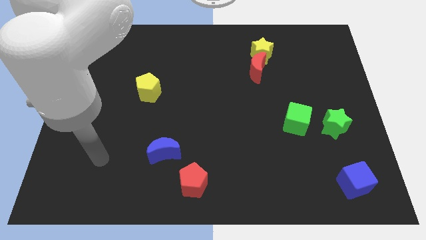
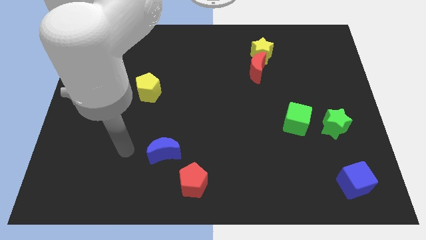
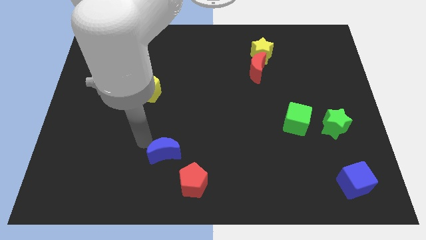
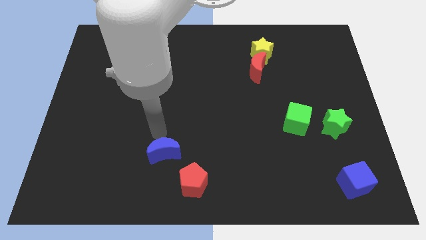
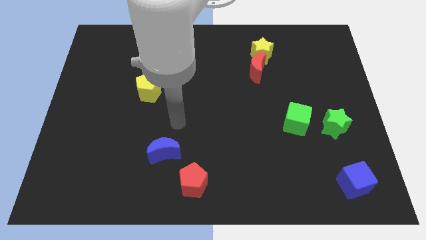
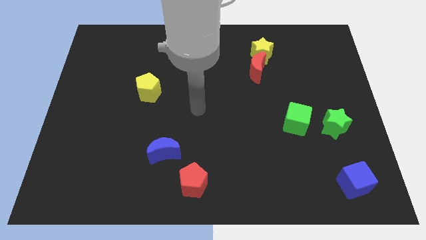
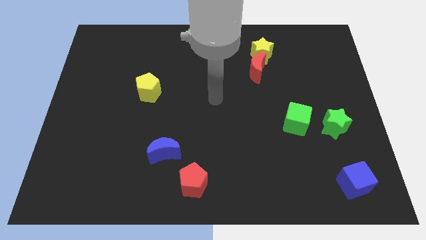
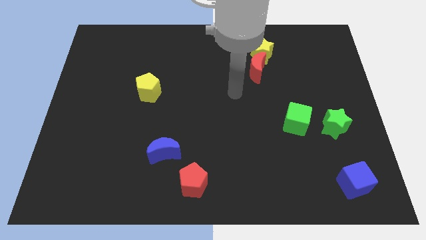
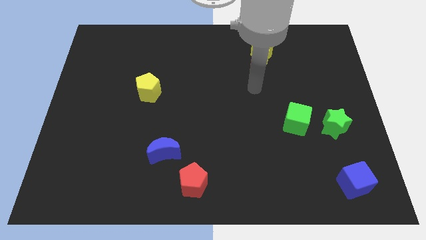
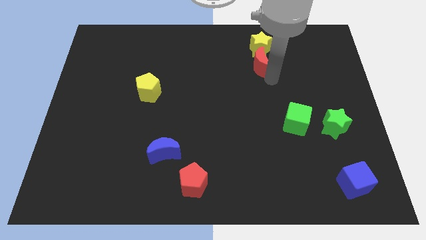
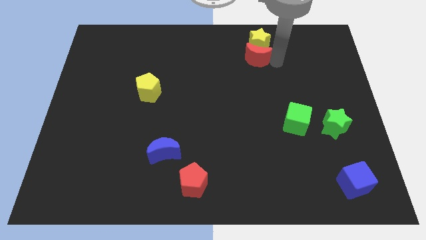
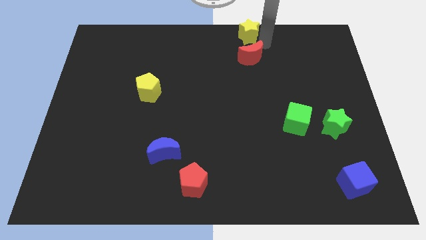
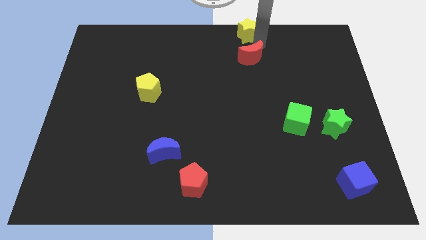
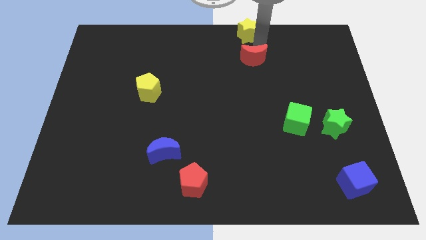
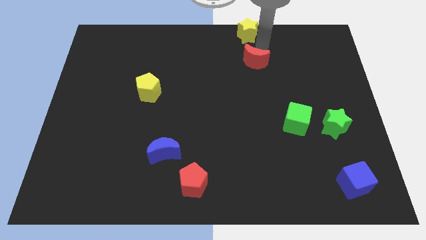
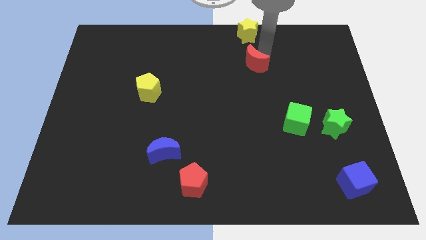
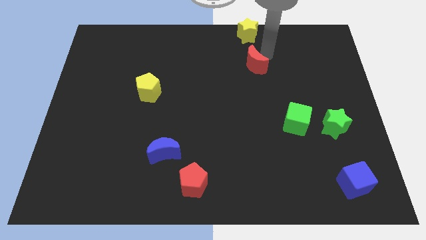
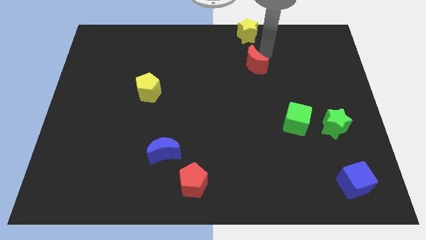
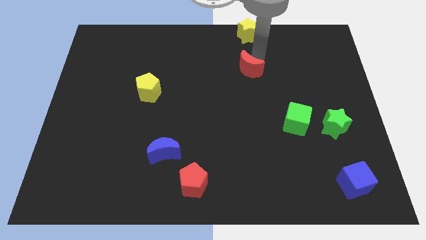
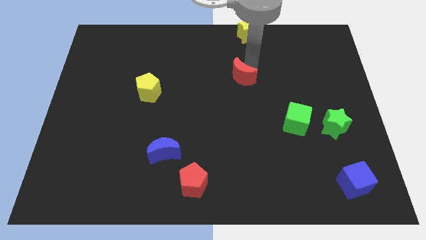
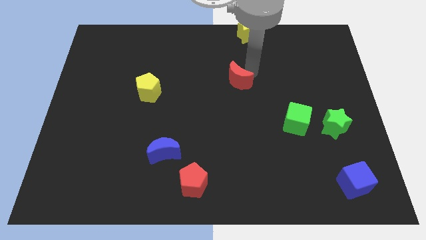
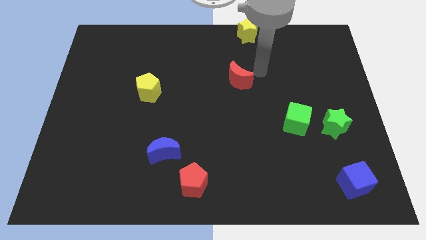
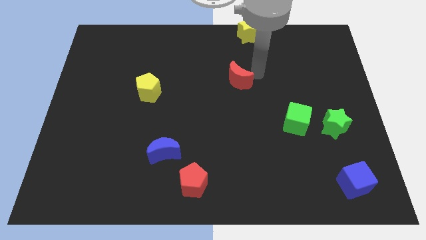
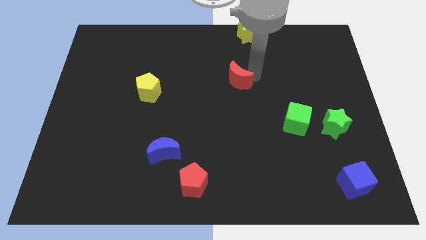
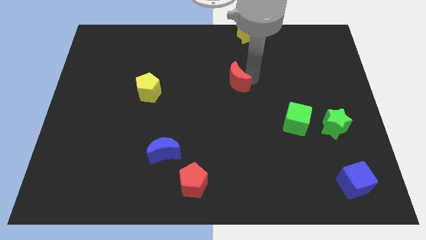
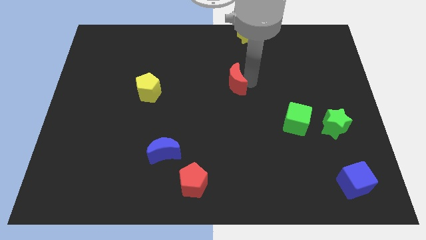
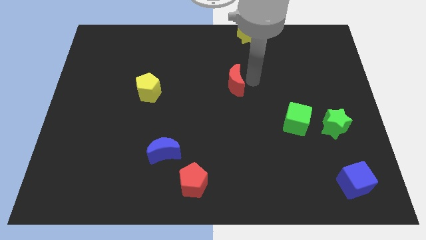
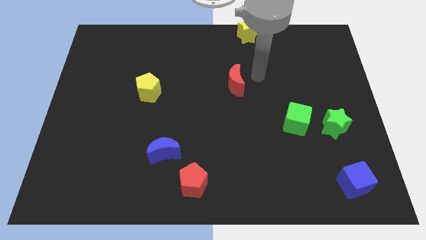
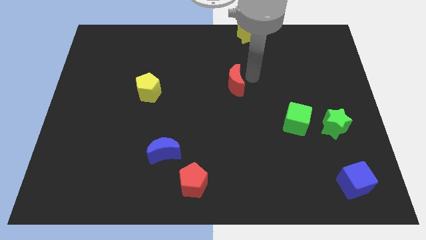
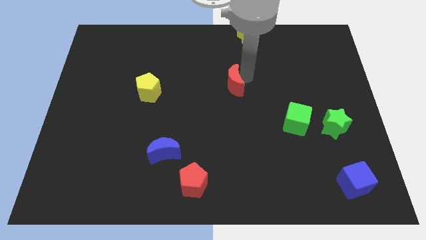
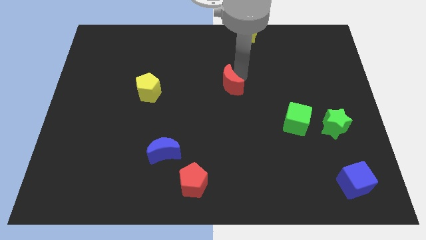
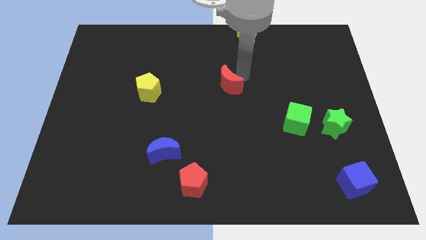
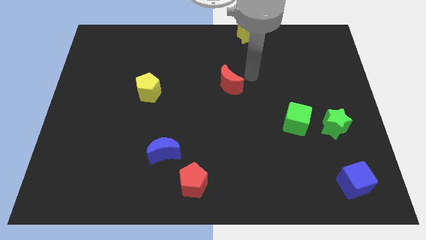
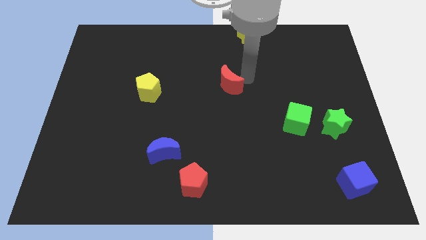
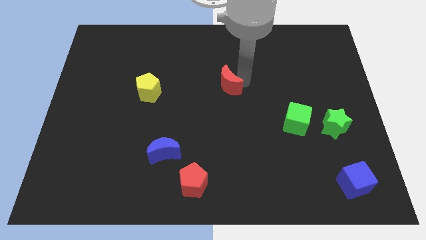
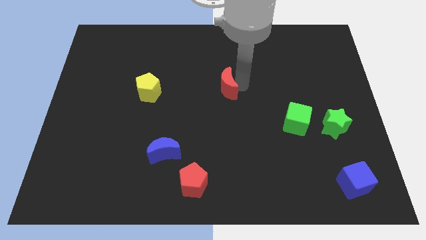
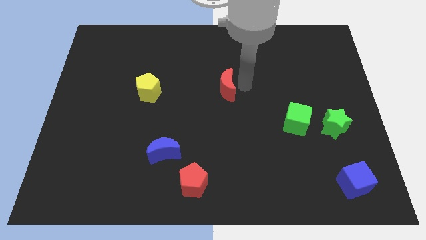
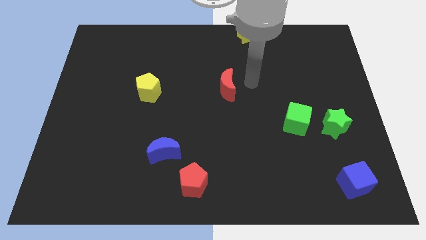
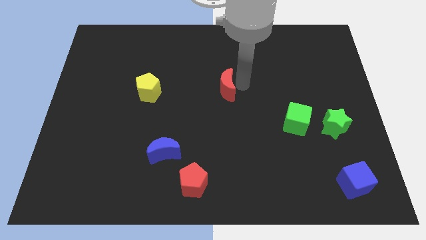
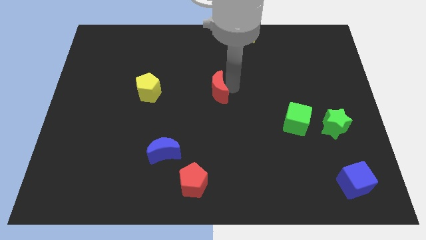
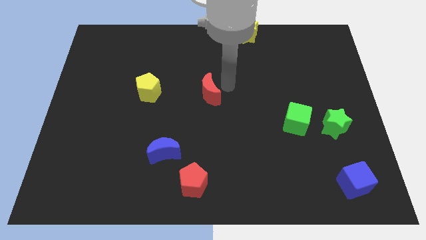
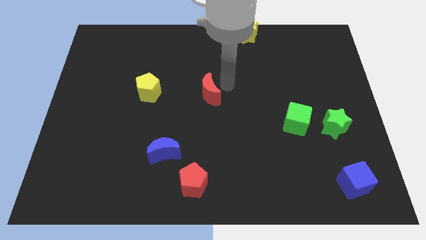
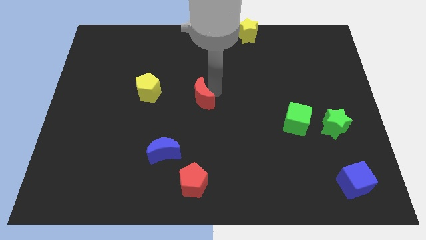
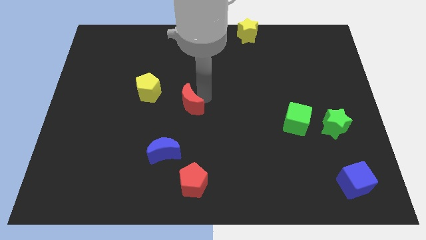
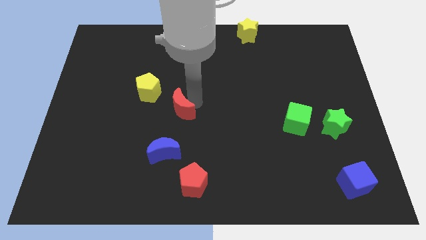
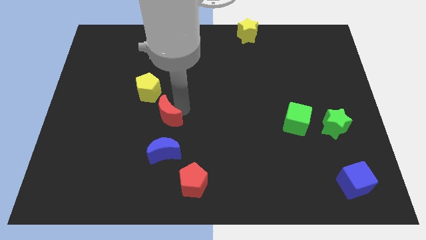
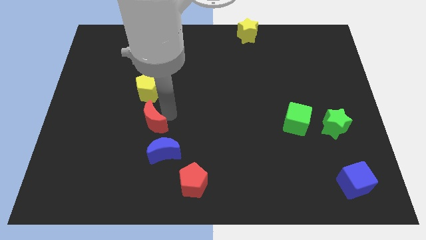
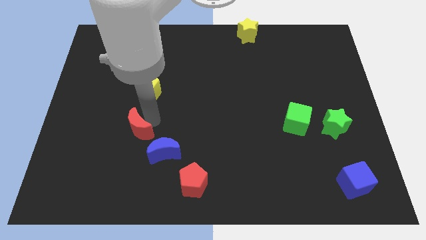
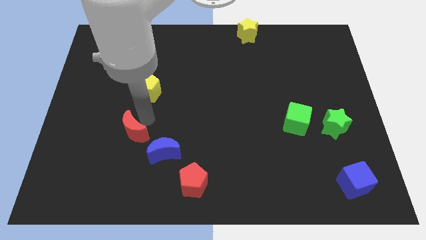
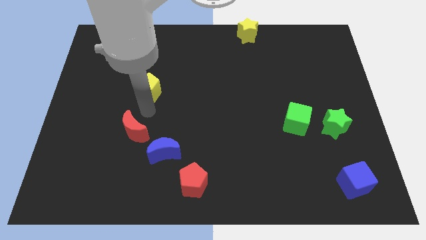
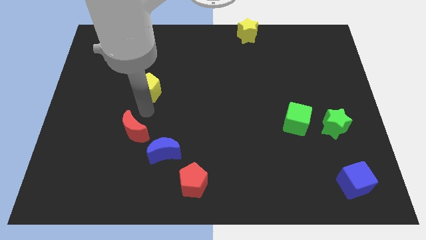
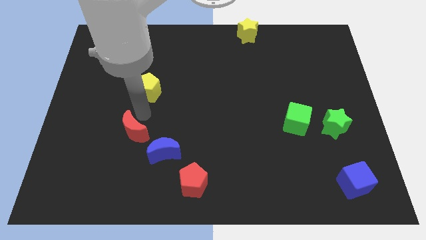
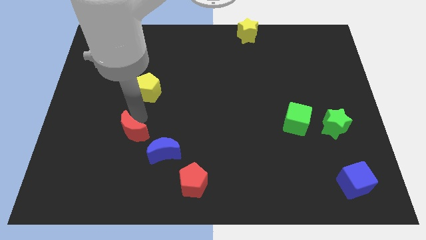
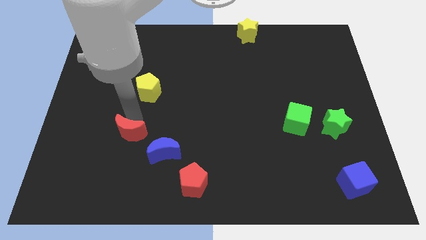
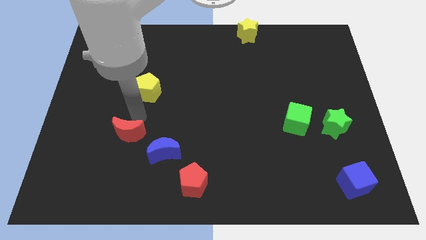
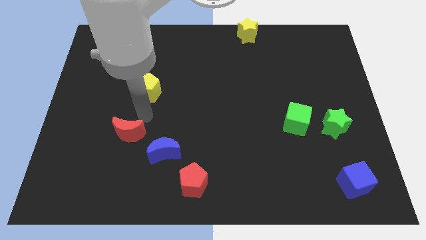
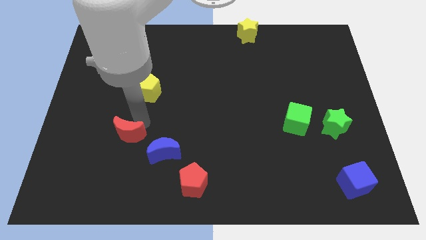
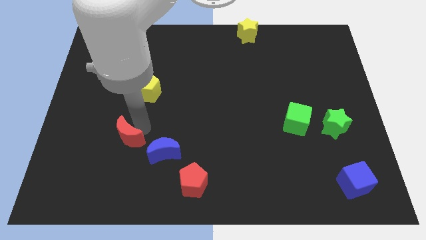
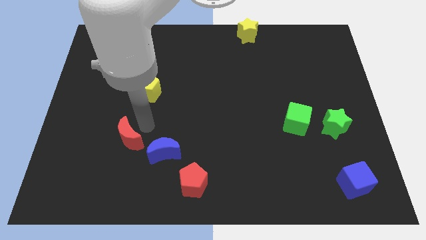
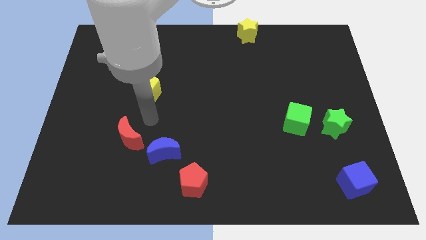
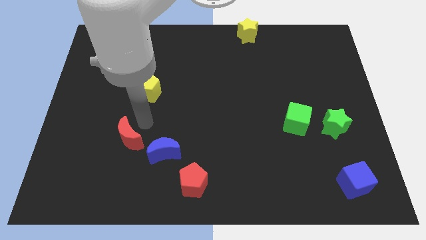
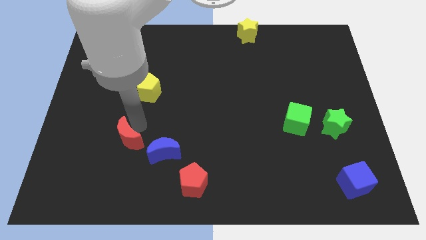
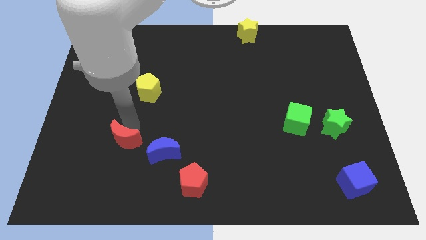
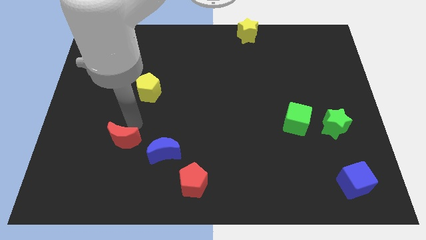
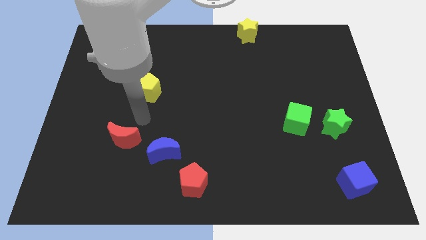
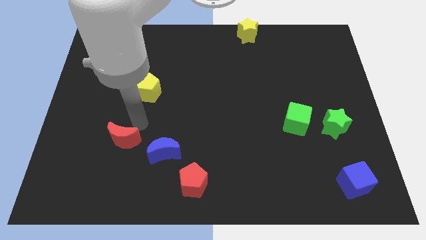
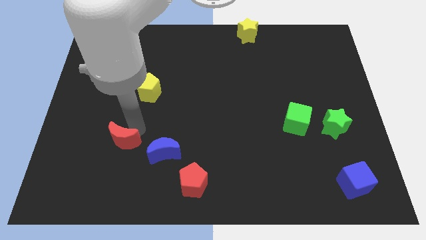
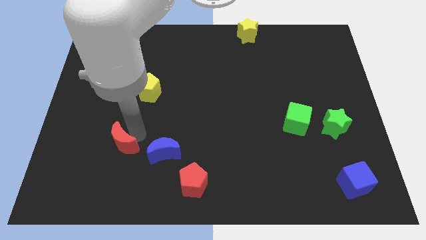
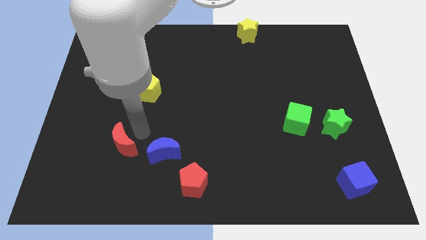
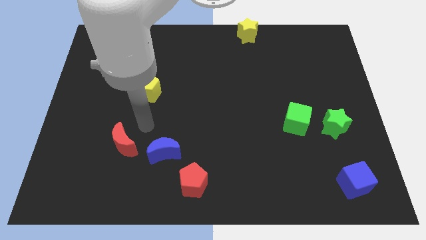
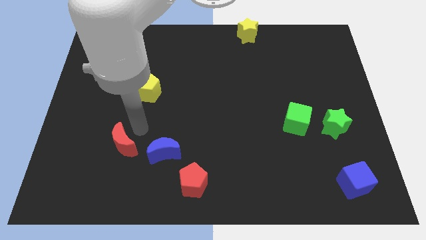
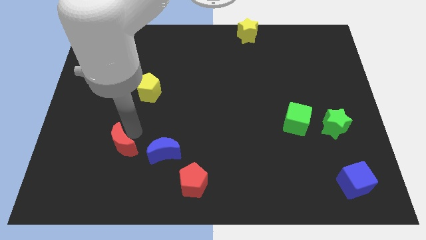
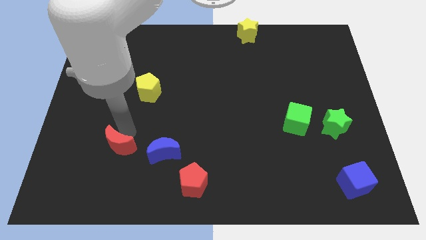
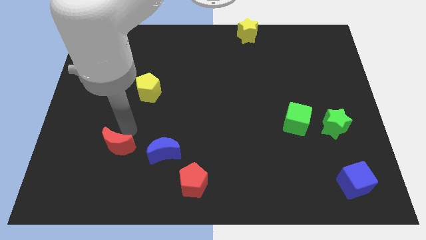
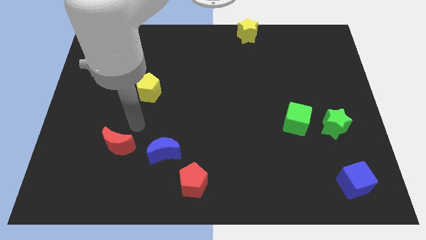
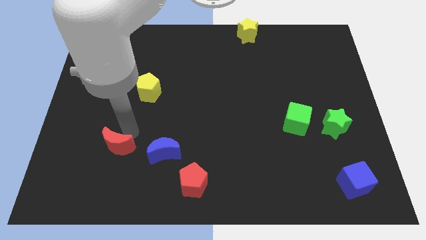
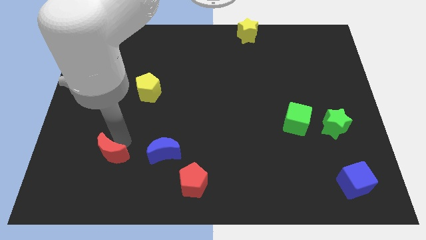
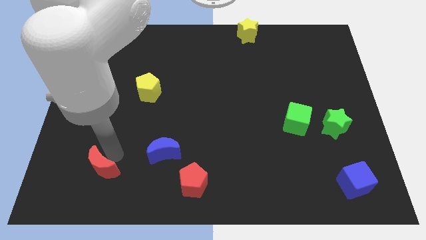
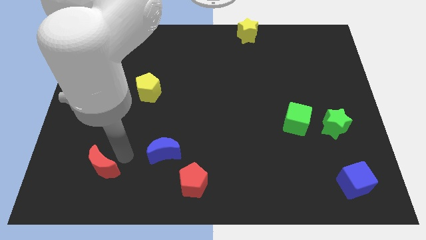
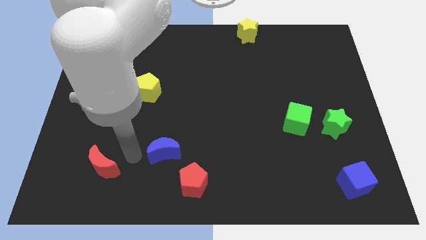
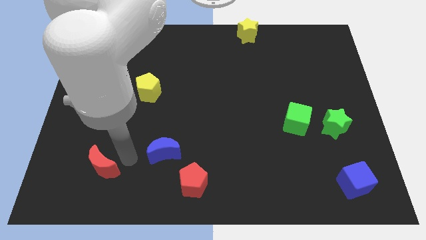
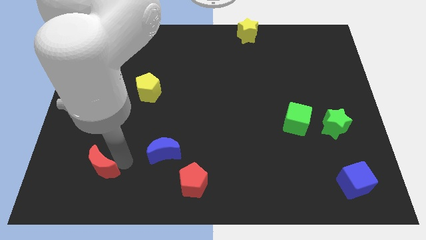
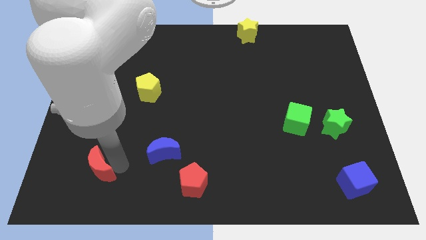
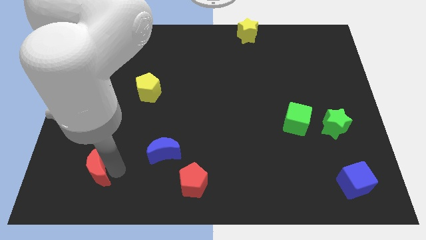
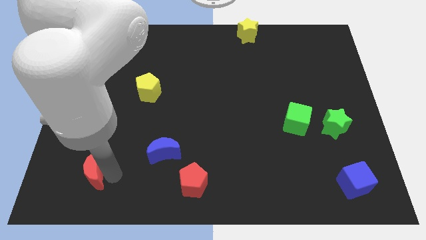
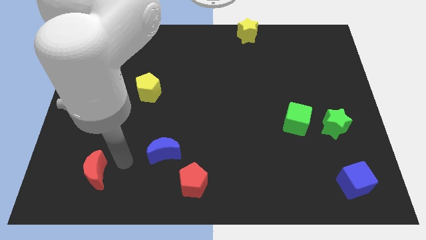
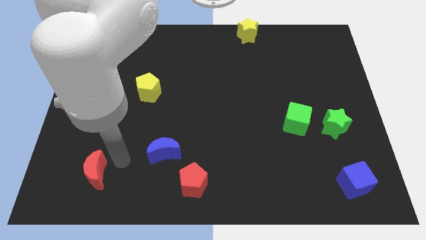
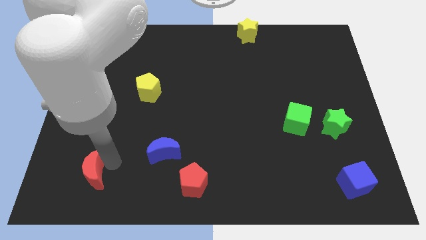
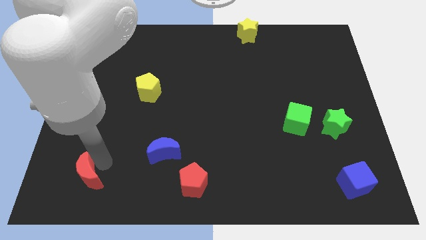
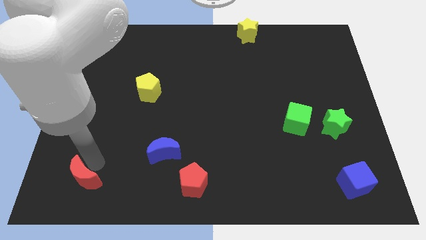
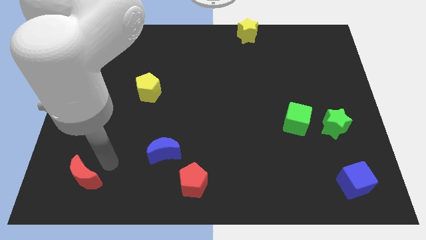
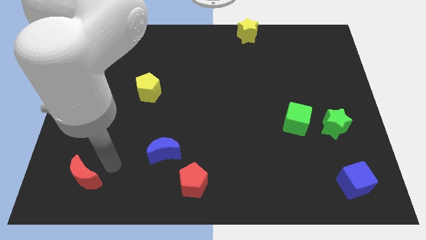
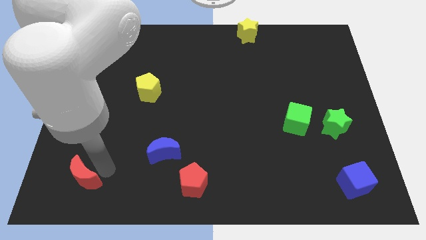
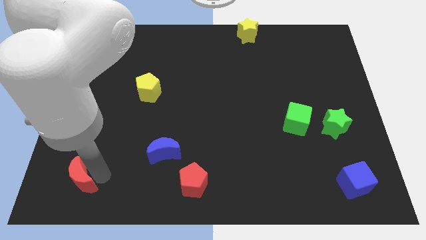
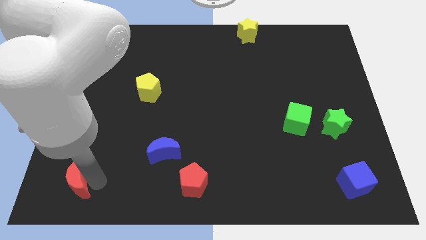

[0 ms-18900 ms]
put the red moon to the bottom left corner
